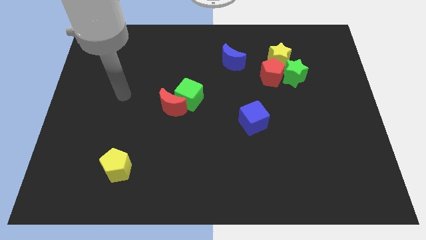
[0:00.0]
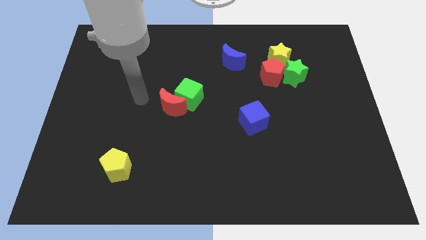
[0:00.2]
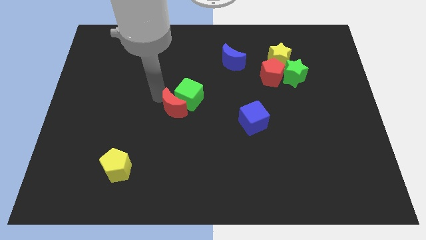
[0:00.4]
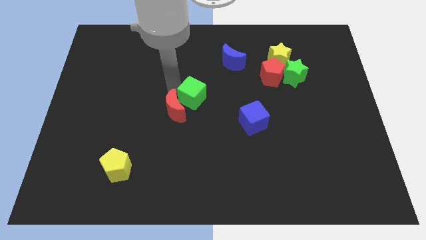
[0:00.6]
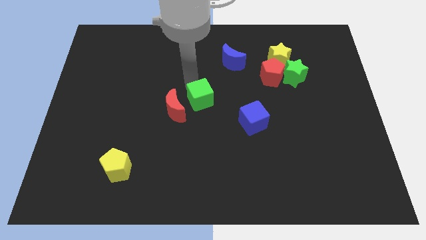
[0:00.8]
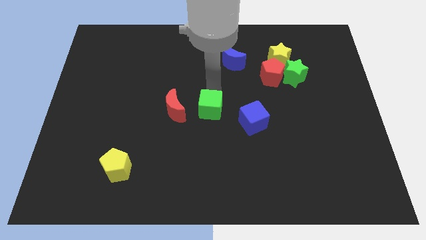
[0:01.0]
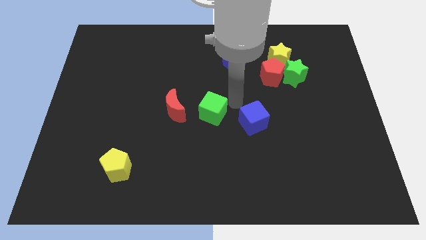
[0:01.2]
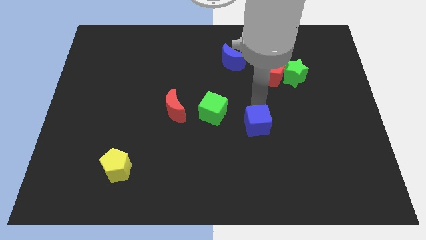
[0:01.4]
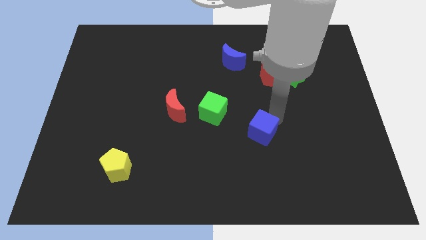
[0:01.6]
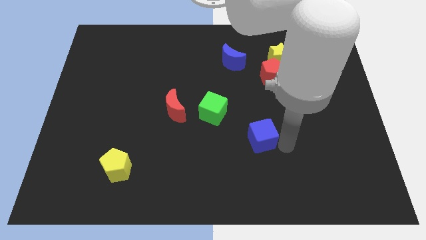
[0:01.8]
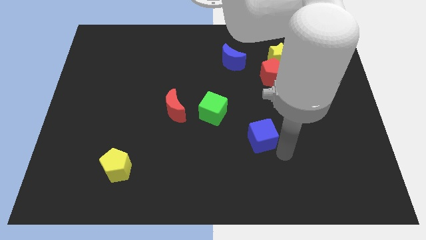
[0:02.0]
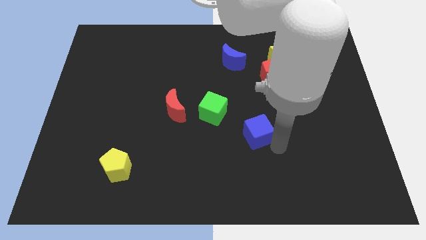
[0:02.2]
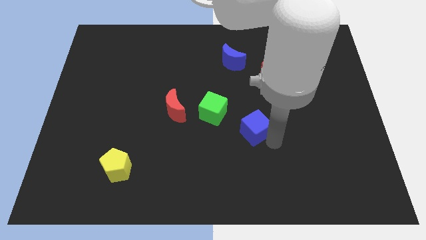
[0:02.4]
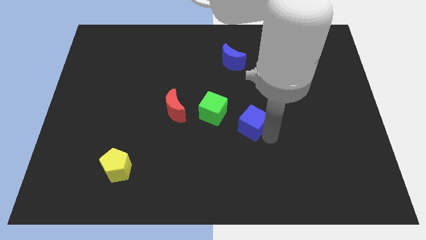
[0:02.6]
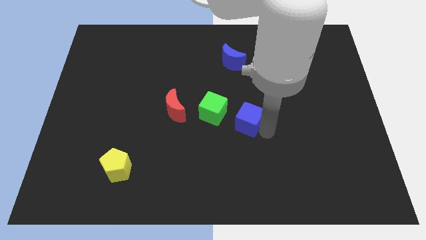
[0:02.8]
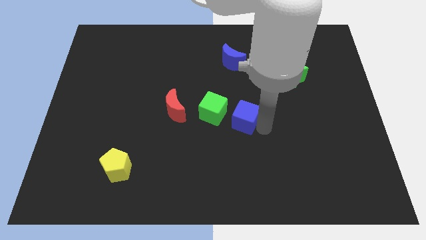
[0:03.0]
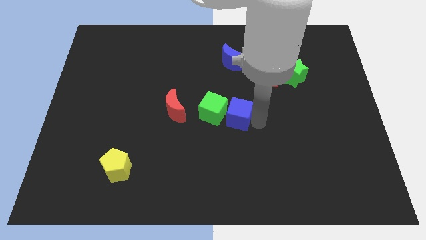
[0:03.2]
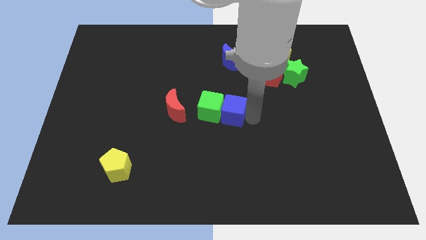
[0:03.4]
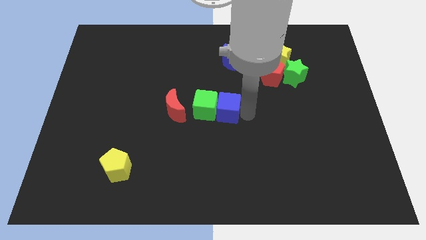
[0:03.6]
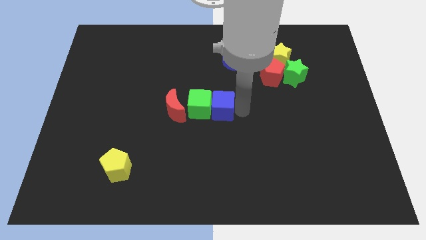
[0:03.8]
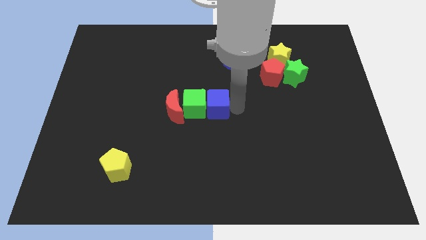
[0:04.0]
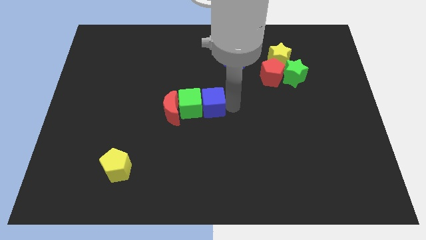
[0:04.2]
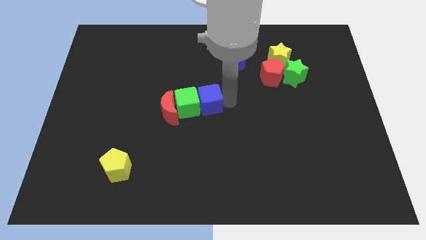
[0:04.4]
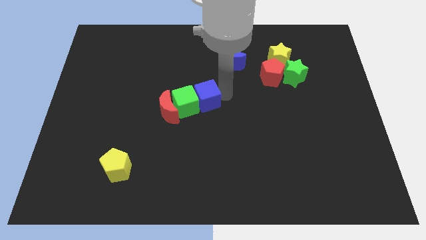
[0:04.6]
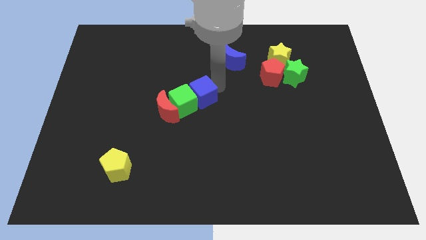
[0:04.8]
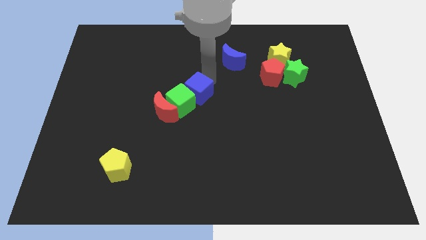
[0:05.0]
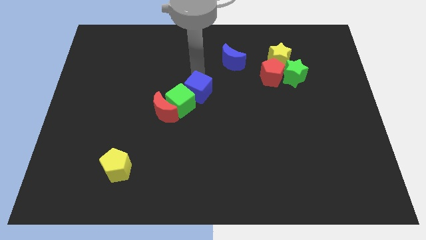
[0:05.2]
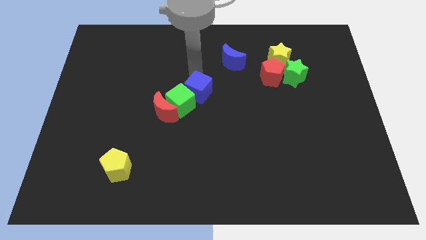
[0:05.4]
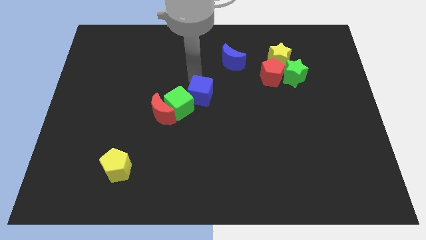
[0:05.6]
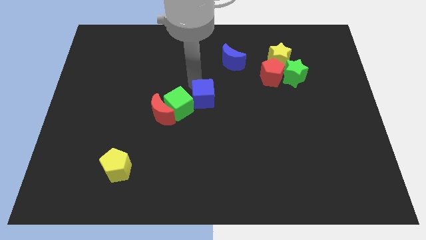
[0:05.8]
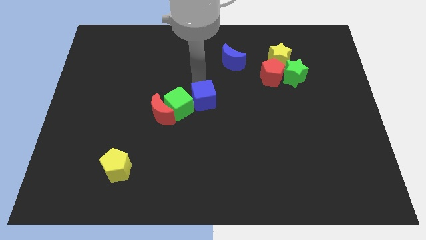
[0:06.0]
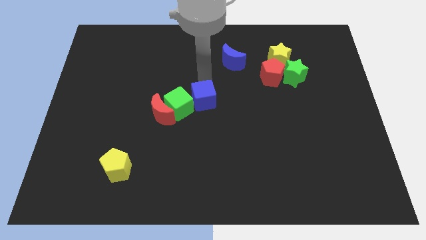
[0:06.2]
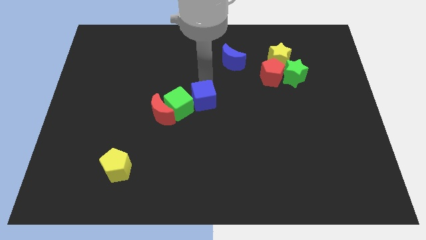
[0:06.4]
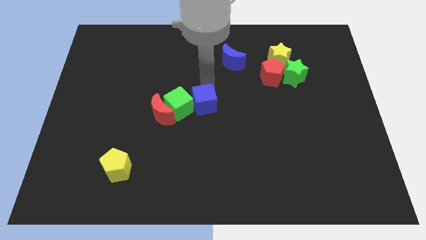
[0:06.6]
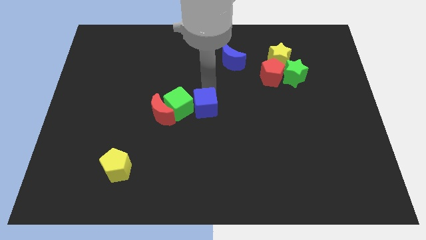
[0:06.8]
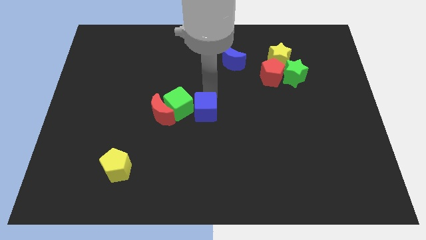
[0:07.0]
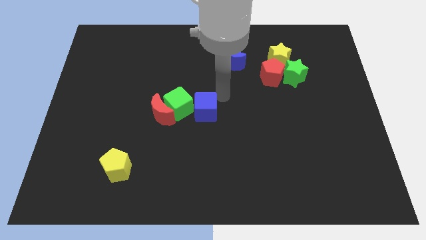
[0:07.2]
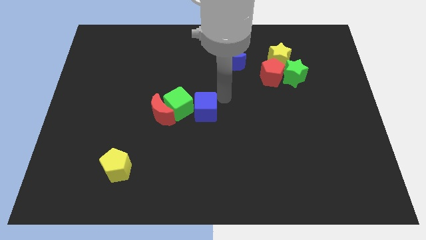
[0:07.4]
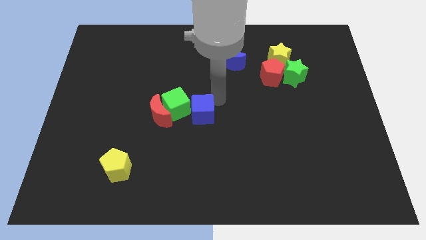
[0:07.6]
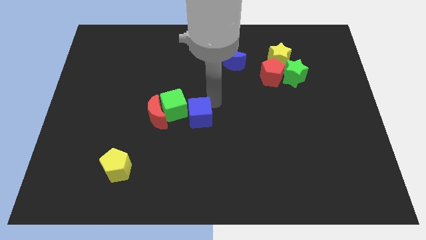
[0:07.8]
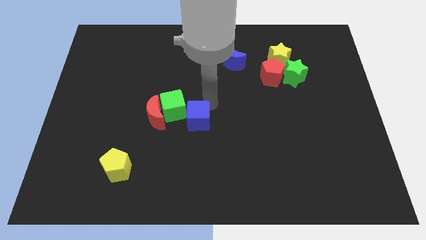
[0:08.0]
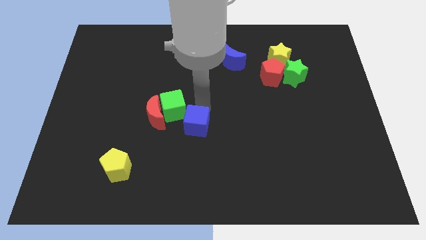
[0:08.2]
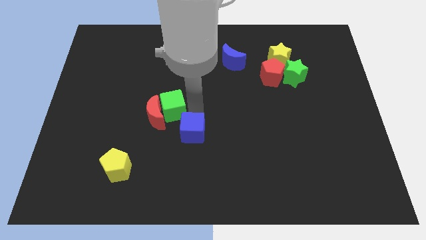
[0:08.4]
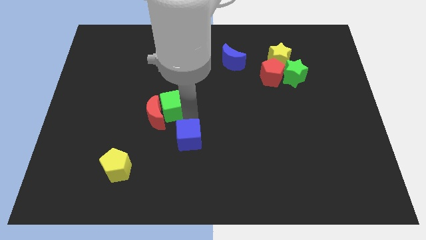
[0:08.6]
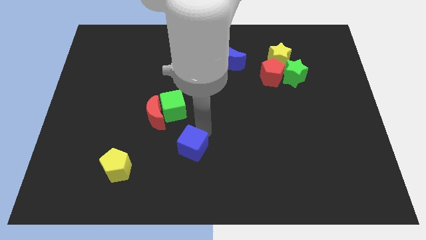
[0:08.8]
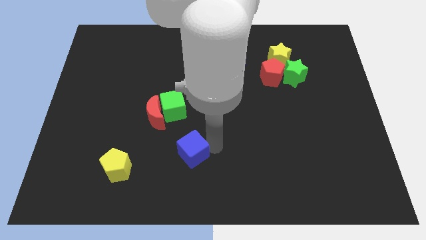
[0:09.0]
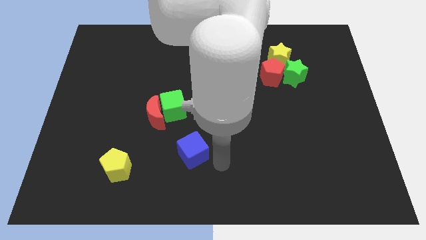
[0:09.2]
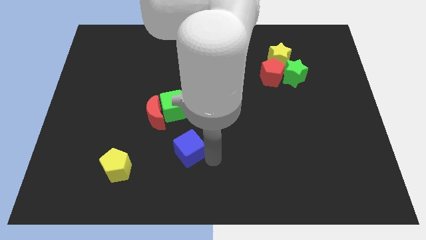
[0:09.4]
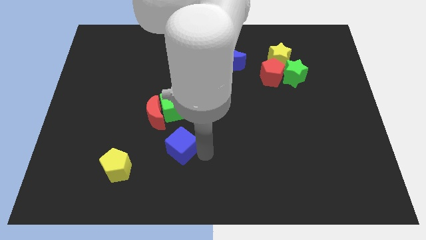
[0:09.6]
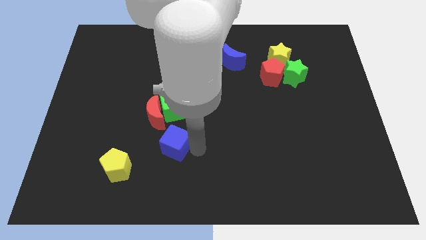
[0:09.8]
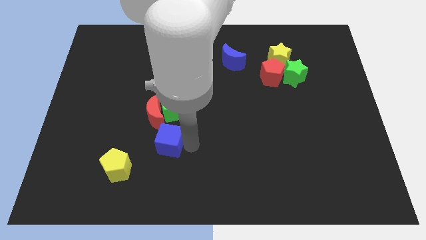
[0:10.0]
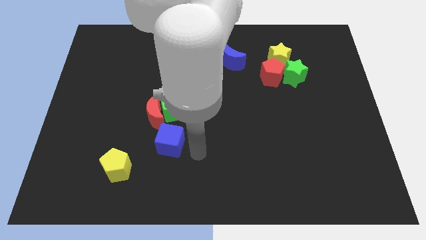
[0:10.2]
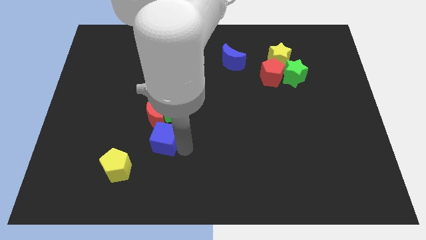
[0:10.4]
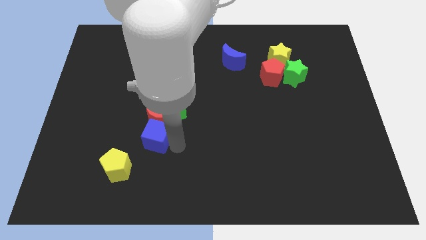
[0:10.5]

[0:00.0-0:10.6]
push the blue cube to the left

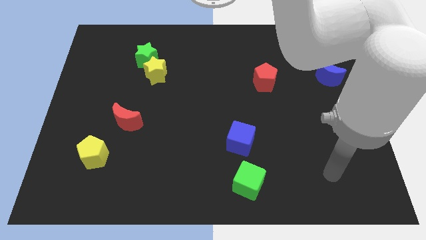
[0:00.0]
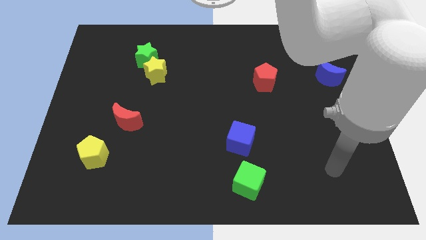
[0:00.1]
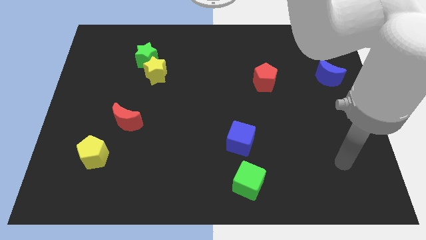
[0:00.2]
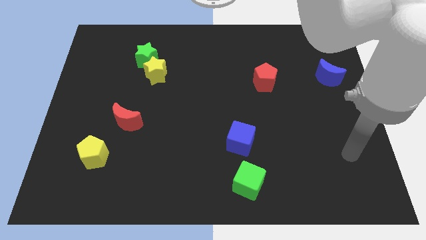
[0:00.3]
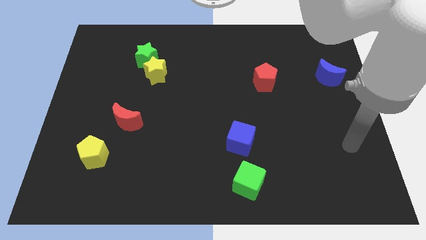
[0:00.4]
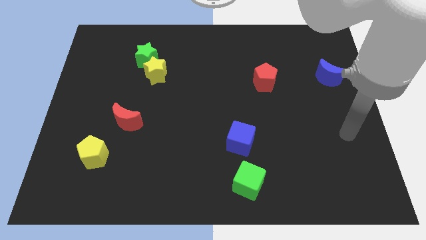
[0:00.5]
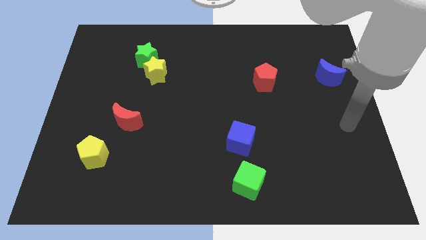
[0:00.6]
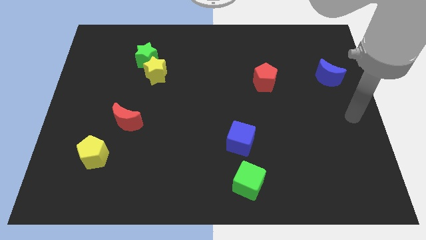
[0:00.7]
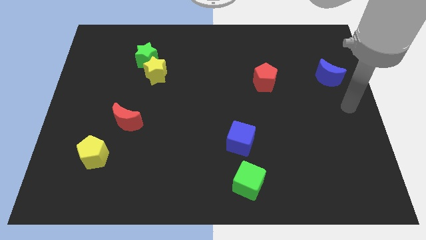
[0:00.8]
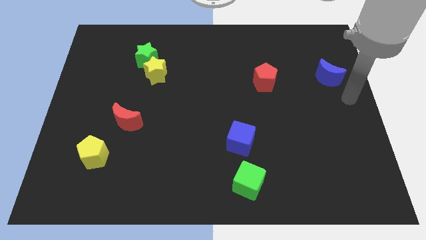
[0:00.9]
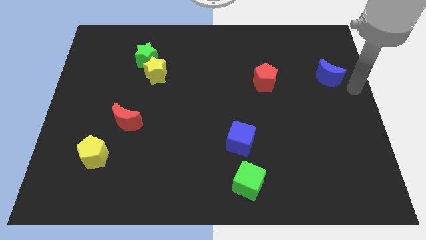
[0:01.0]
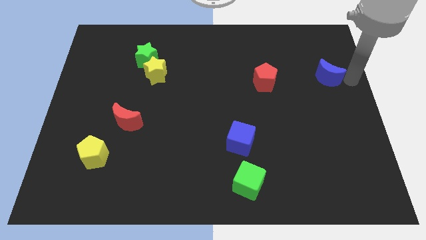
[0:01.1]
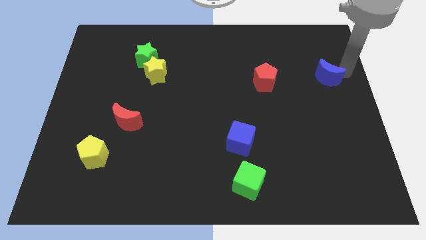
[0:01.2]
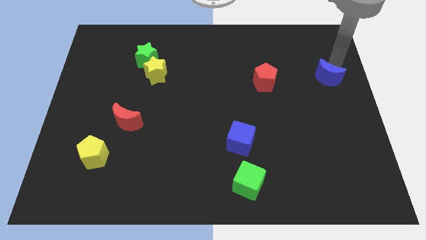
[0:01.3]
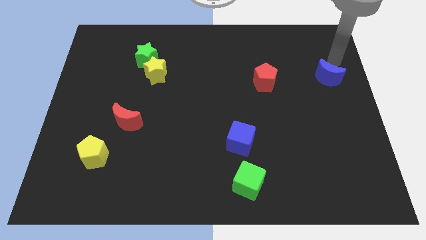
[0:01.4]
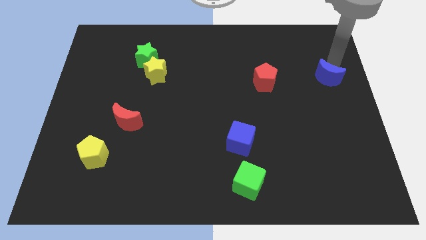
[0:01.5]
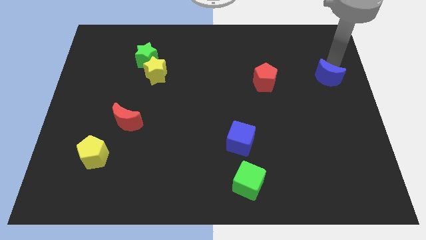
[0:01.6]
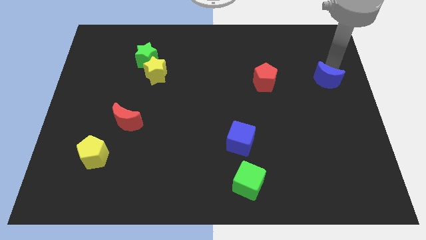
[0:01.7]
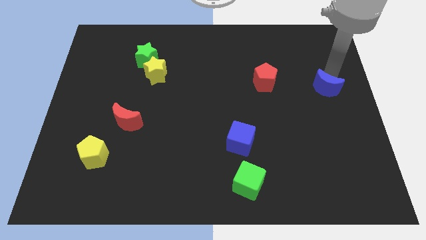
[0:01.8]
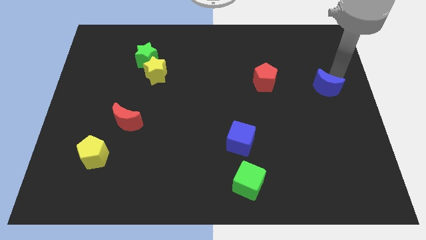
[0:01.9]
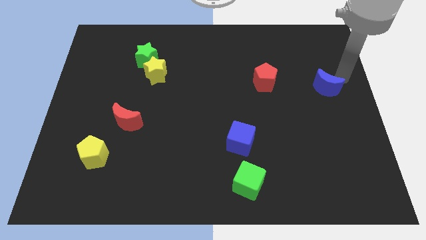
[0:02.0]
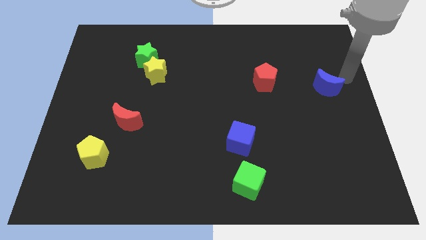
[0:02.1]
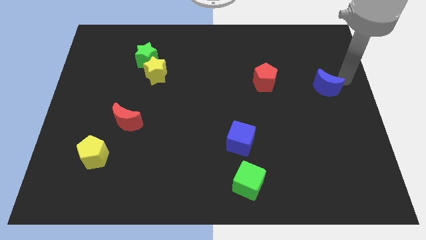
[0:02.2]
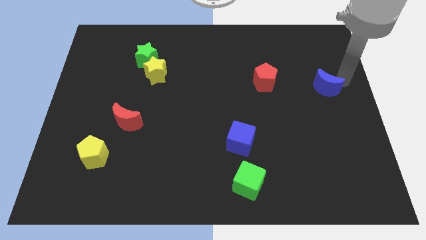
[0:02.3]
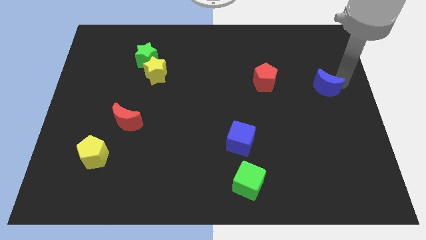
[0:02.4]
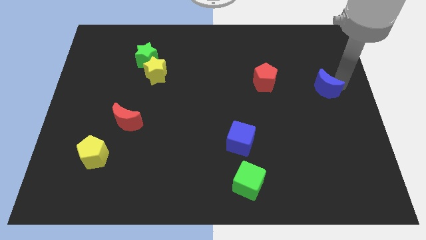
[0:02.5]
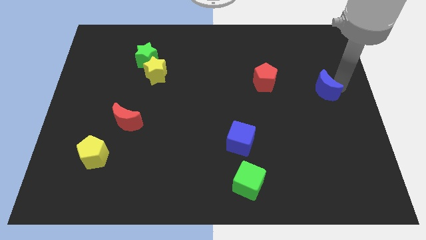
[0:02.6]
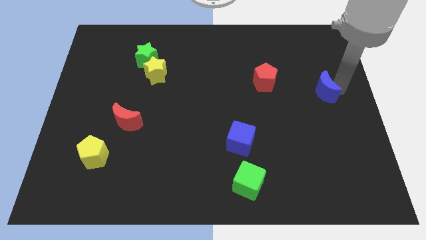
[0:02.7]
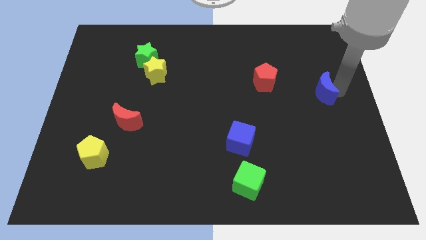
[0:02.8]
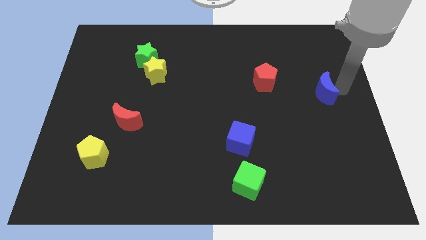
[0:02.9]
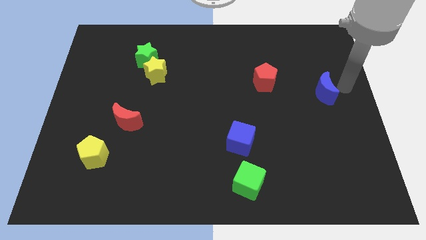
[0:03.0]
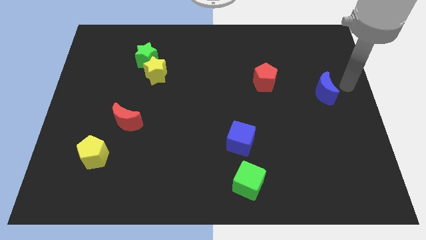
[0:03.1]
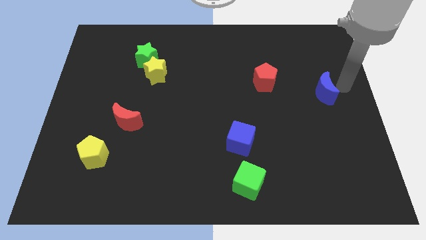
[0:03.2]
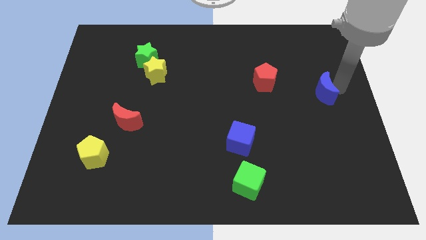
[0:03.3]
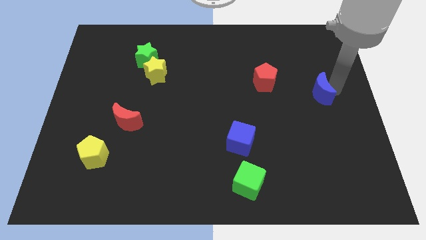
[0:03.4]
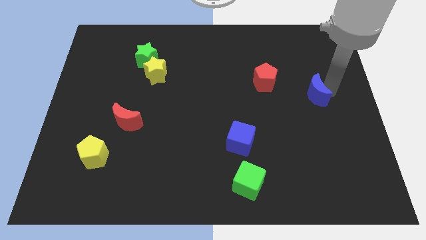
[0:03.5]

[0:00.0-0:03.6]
slightly move the blue moon down and then left
